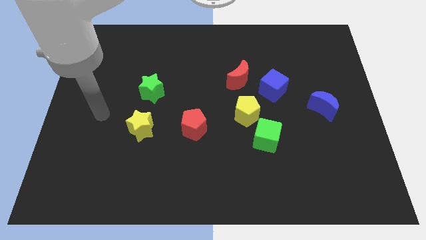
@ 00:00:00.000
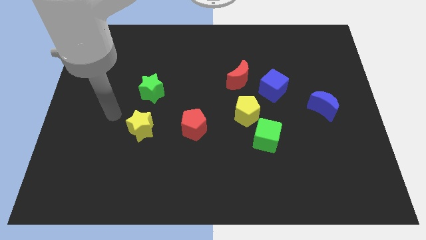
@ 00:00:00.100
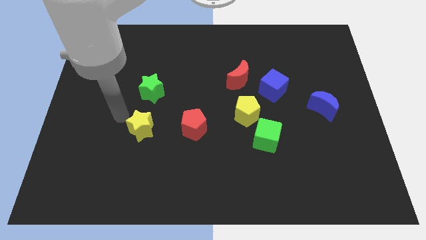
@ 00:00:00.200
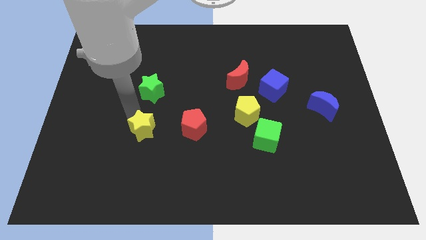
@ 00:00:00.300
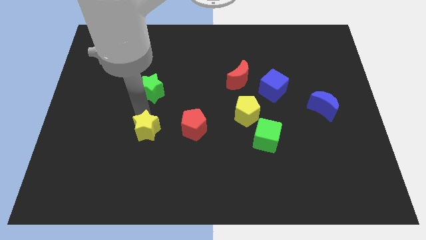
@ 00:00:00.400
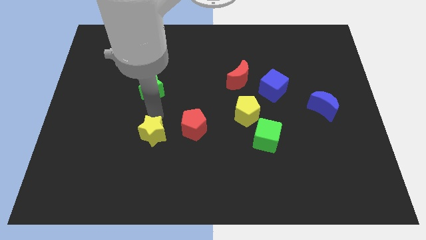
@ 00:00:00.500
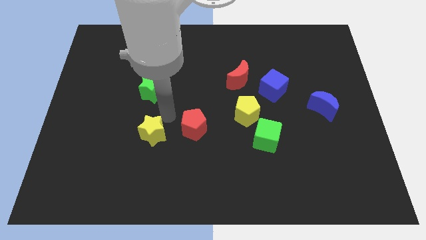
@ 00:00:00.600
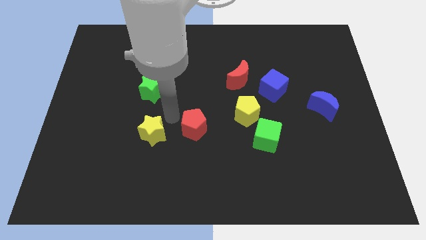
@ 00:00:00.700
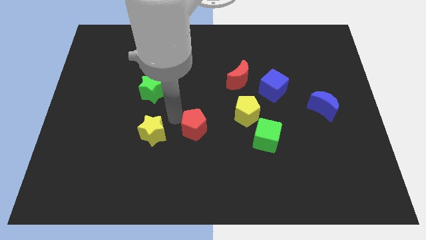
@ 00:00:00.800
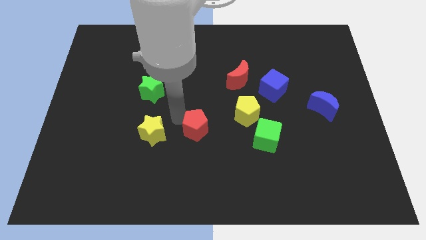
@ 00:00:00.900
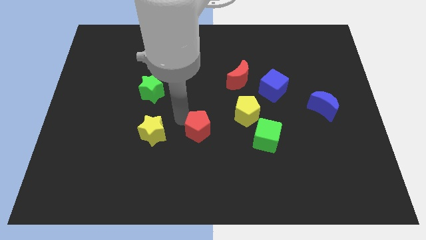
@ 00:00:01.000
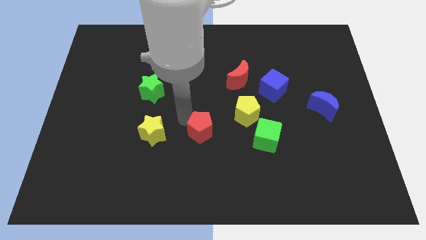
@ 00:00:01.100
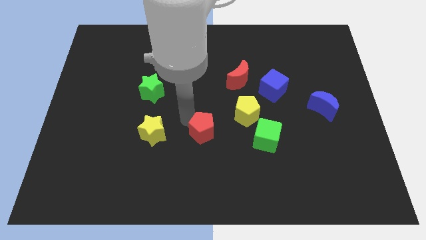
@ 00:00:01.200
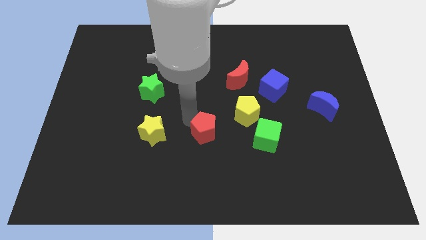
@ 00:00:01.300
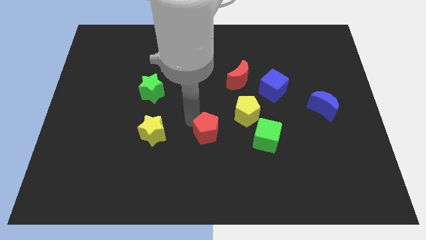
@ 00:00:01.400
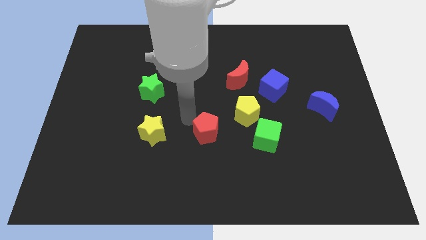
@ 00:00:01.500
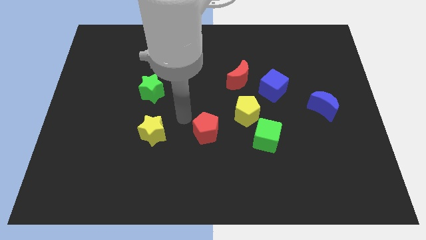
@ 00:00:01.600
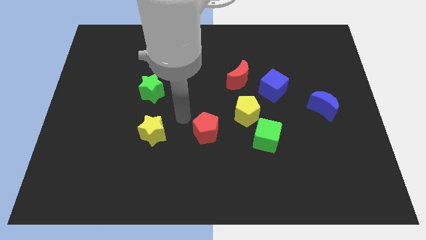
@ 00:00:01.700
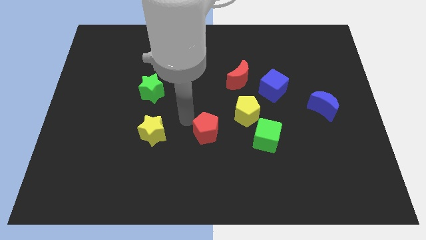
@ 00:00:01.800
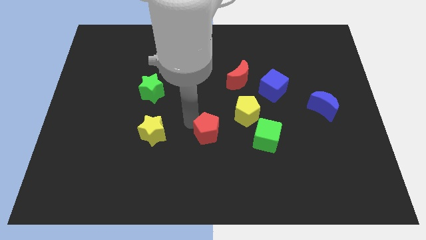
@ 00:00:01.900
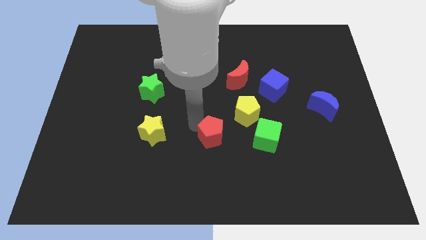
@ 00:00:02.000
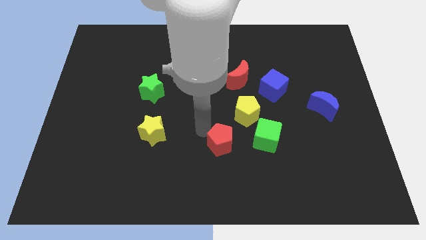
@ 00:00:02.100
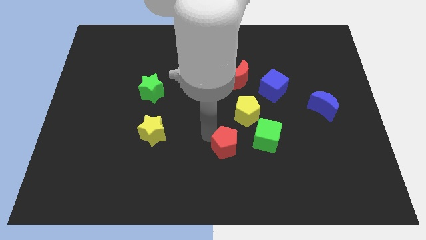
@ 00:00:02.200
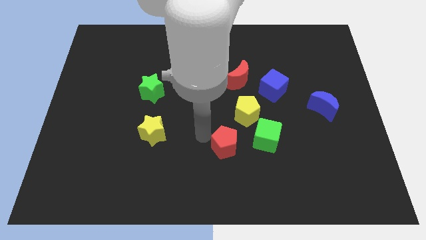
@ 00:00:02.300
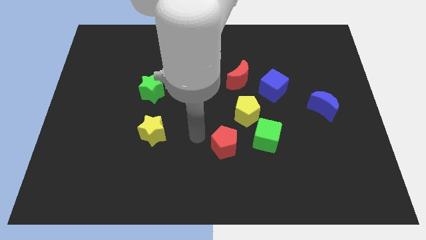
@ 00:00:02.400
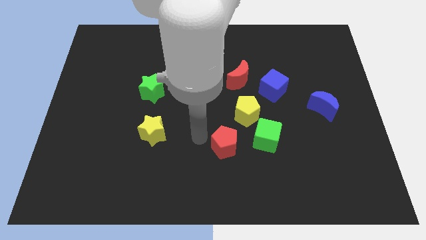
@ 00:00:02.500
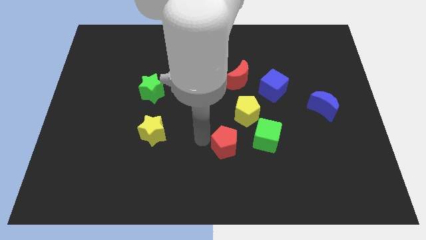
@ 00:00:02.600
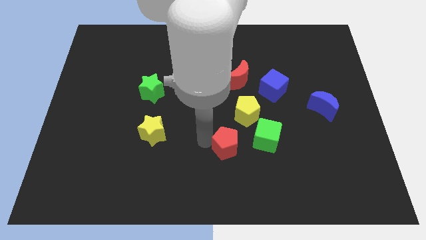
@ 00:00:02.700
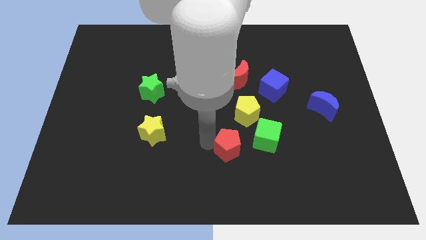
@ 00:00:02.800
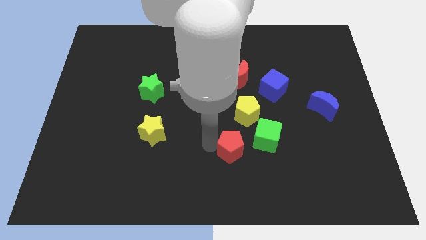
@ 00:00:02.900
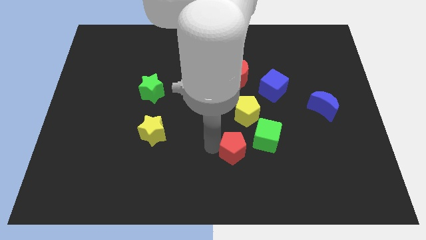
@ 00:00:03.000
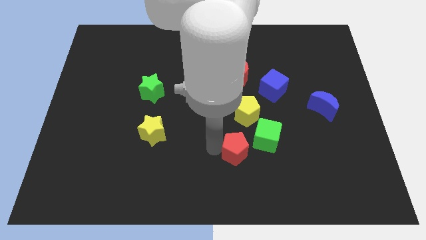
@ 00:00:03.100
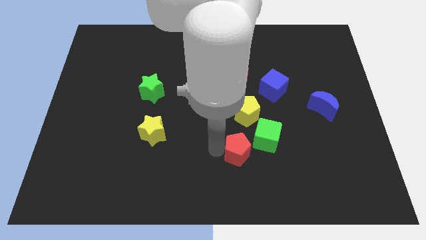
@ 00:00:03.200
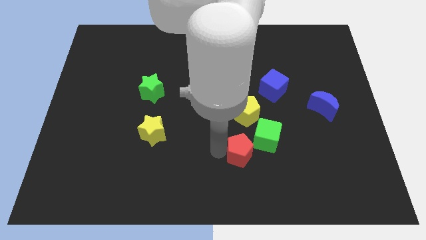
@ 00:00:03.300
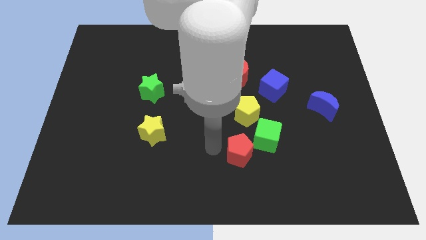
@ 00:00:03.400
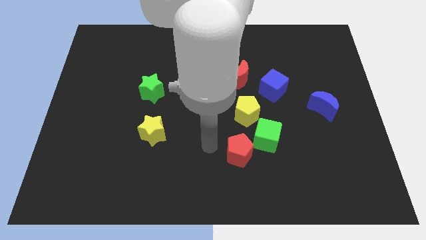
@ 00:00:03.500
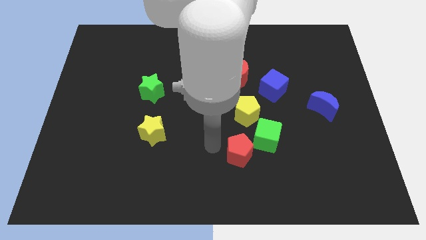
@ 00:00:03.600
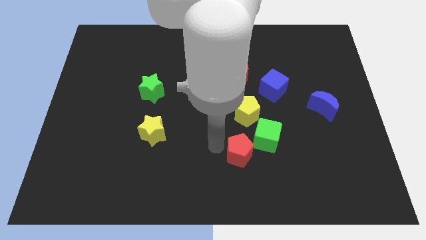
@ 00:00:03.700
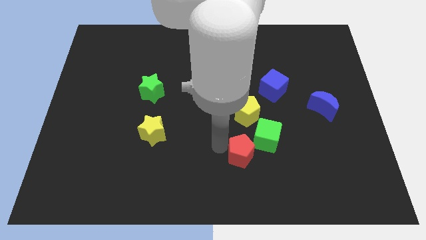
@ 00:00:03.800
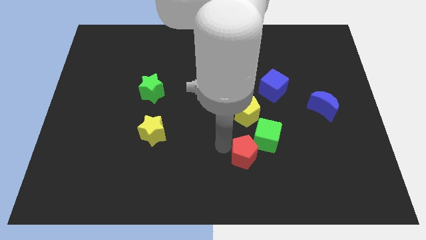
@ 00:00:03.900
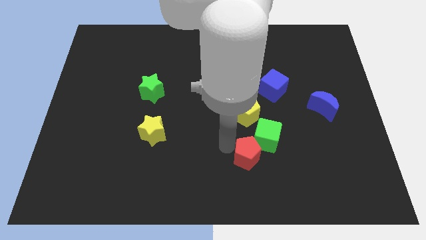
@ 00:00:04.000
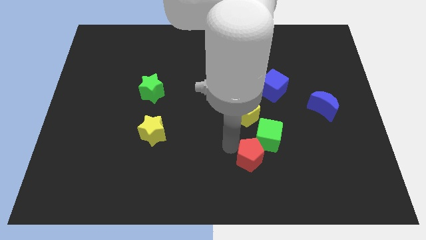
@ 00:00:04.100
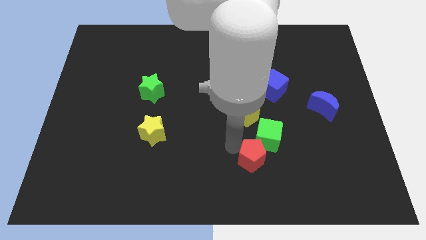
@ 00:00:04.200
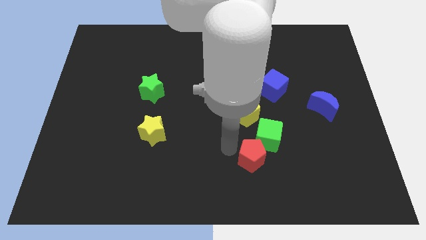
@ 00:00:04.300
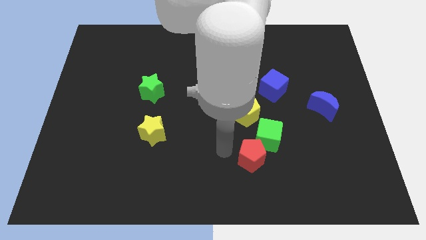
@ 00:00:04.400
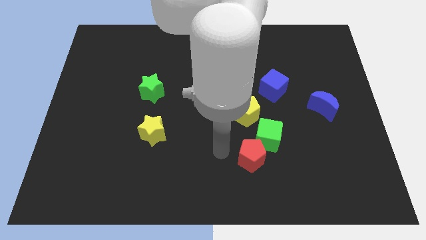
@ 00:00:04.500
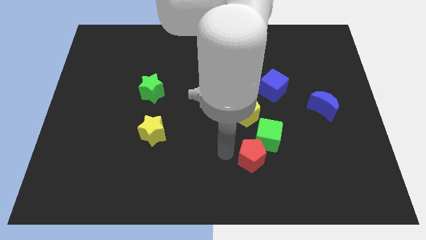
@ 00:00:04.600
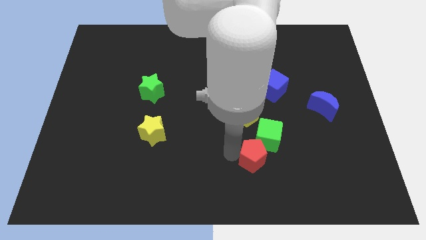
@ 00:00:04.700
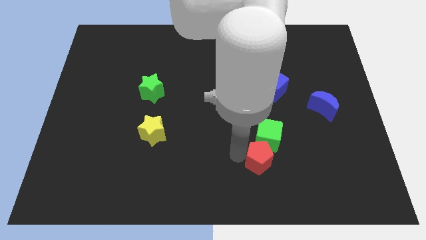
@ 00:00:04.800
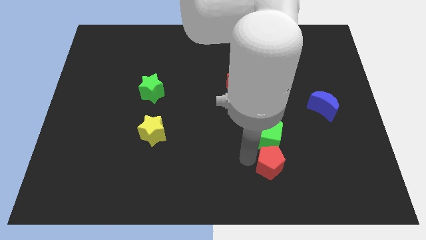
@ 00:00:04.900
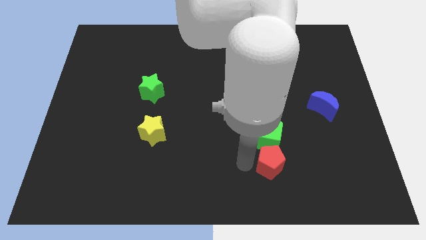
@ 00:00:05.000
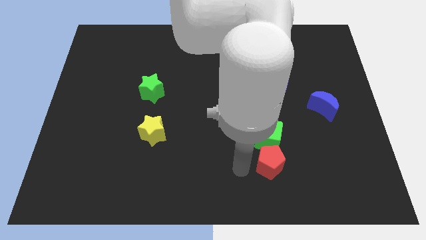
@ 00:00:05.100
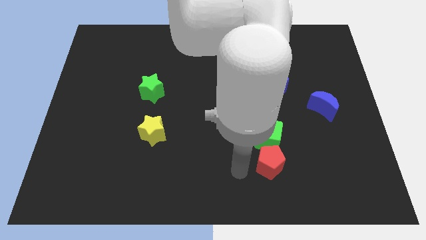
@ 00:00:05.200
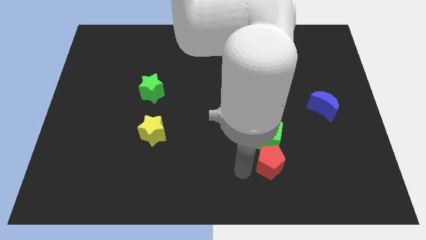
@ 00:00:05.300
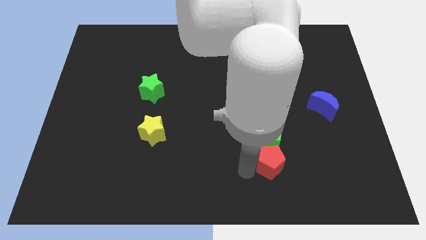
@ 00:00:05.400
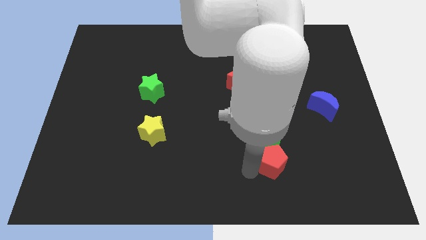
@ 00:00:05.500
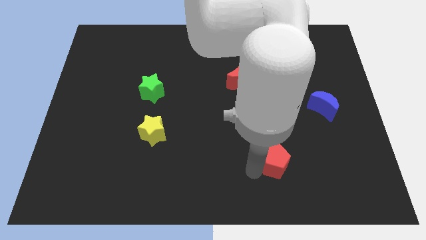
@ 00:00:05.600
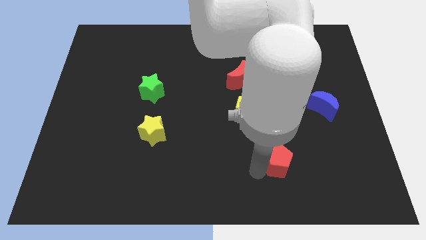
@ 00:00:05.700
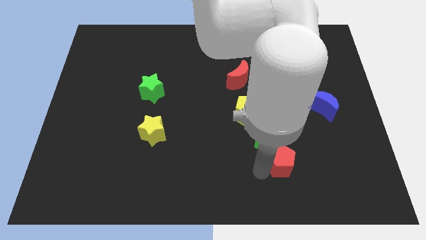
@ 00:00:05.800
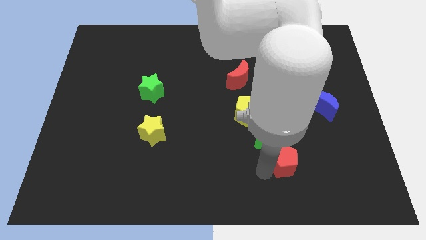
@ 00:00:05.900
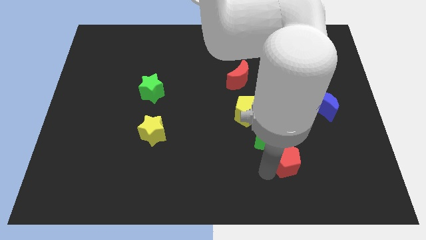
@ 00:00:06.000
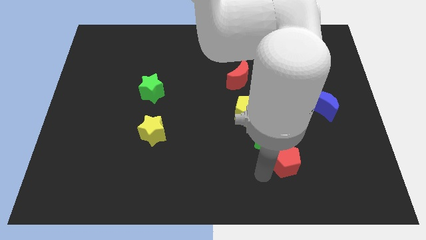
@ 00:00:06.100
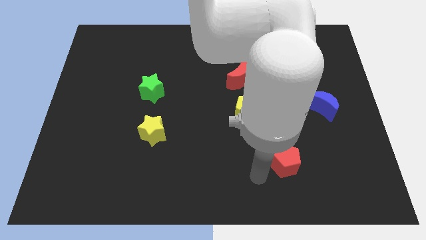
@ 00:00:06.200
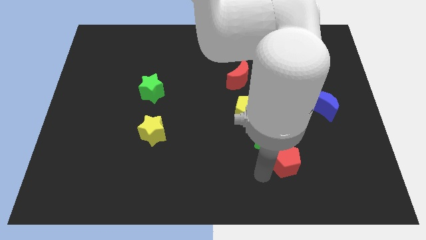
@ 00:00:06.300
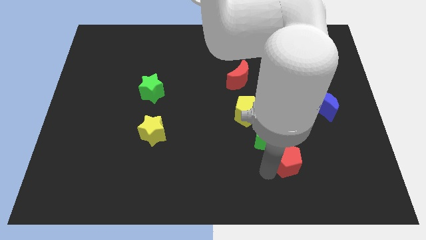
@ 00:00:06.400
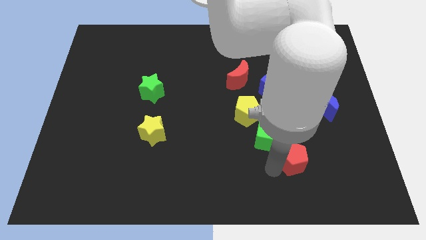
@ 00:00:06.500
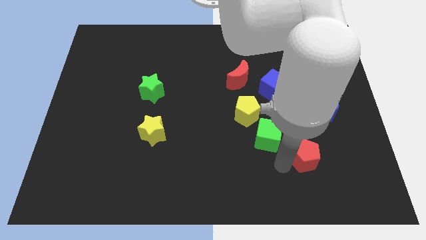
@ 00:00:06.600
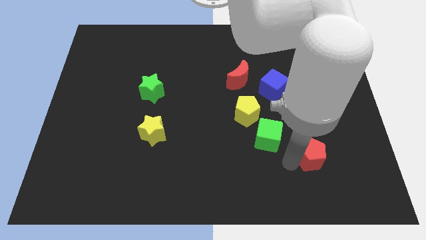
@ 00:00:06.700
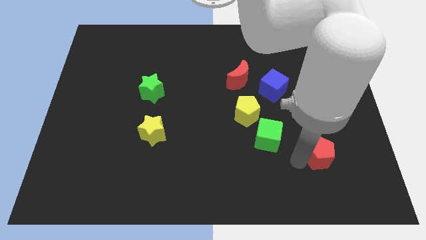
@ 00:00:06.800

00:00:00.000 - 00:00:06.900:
move the red pentagon below the blue moon
